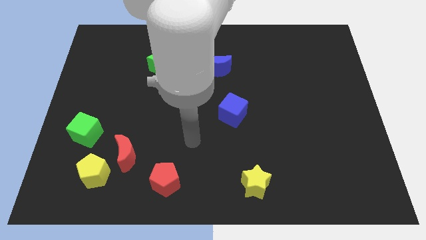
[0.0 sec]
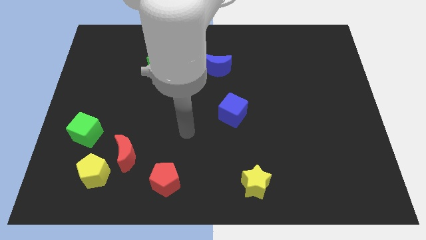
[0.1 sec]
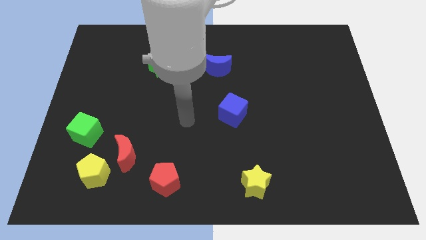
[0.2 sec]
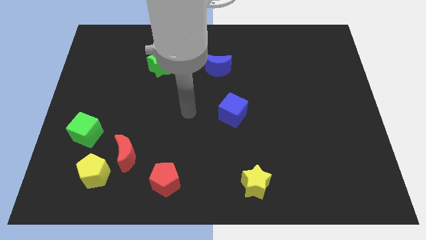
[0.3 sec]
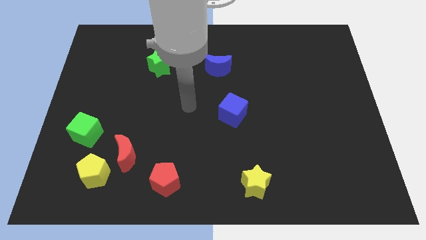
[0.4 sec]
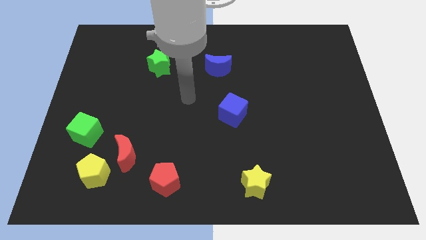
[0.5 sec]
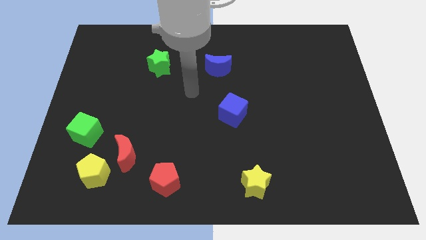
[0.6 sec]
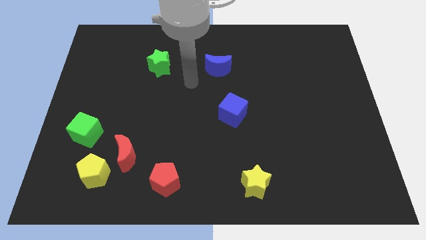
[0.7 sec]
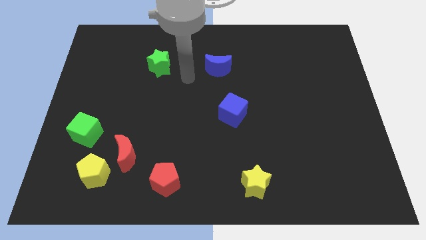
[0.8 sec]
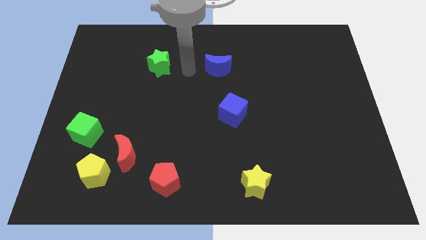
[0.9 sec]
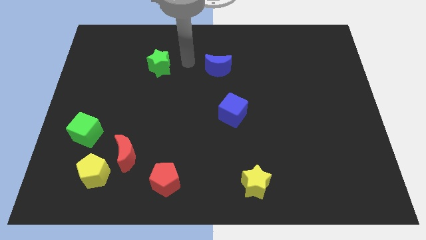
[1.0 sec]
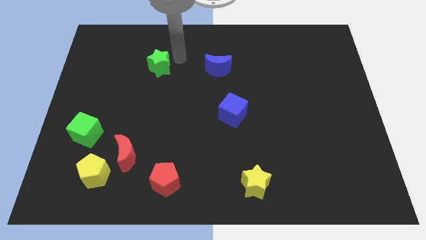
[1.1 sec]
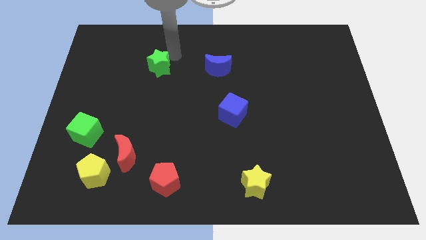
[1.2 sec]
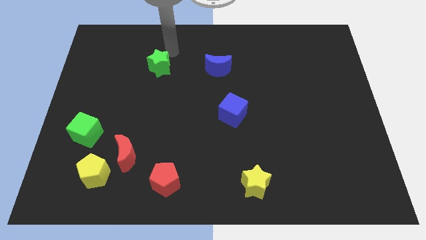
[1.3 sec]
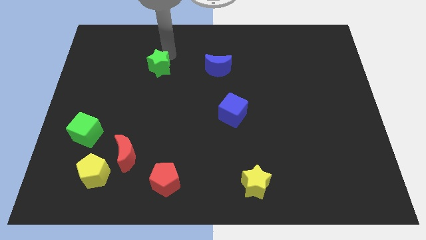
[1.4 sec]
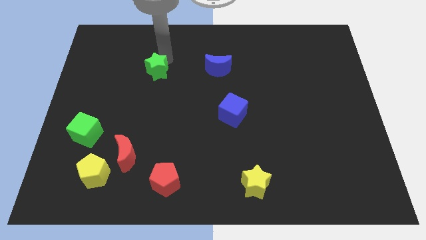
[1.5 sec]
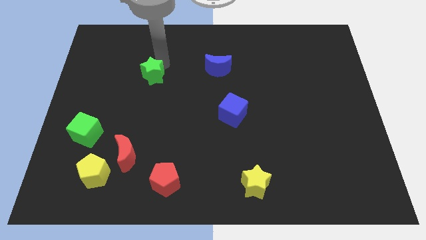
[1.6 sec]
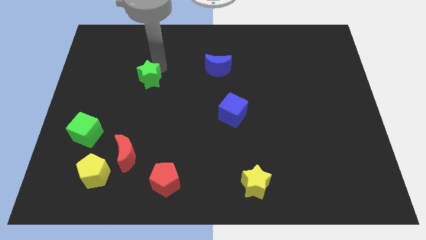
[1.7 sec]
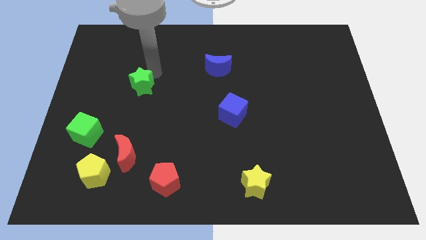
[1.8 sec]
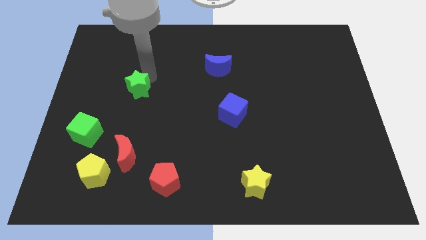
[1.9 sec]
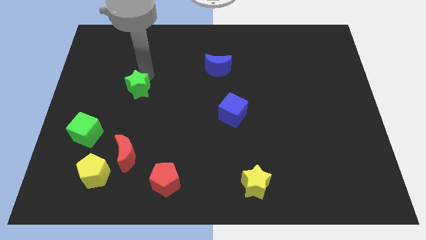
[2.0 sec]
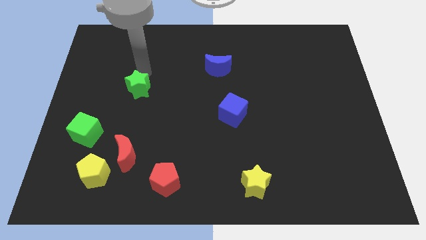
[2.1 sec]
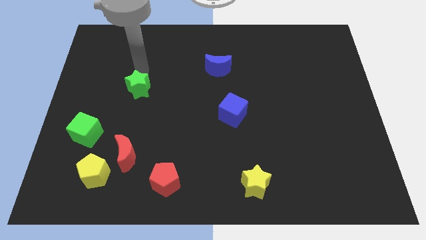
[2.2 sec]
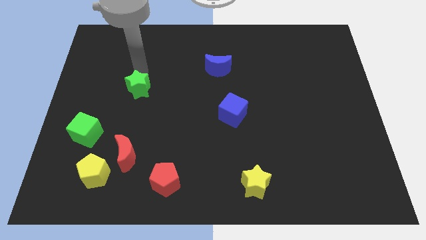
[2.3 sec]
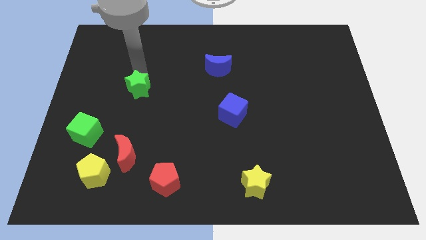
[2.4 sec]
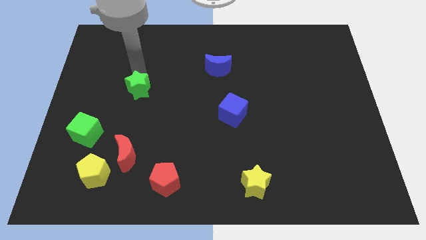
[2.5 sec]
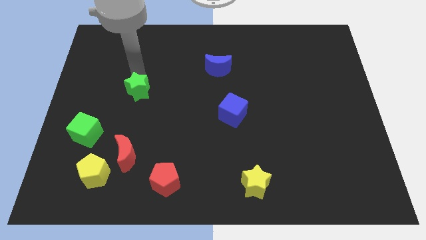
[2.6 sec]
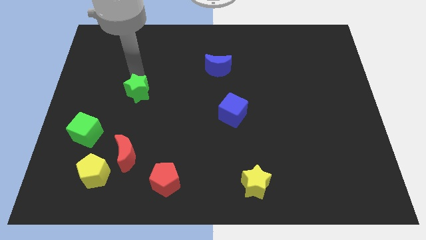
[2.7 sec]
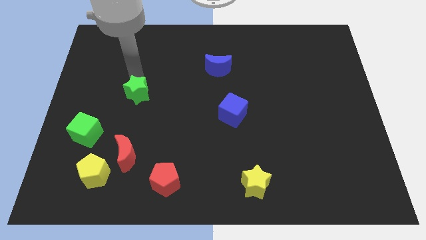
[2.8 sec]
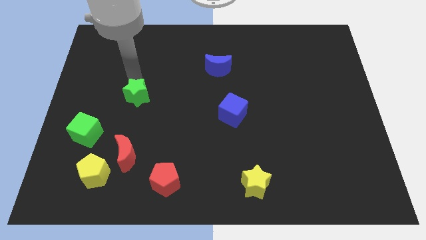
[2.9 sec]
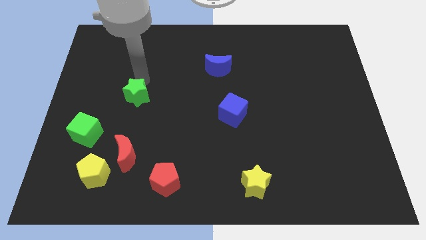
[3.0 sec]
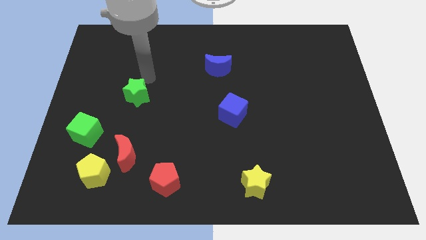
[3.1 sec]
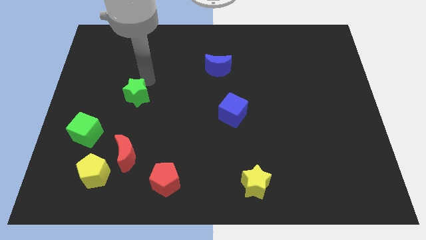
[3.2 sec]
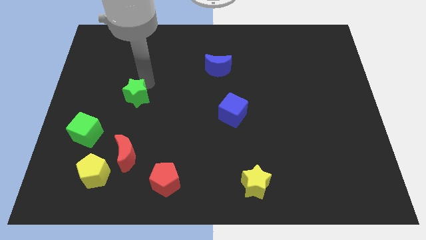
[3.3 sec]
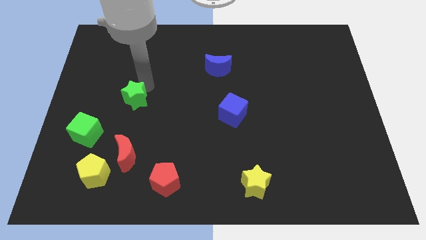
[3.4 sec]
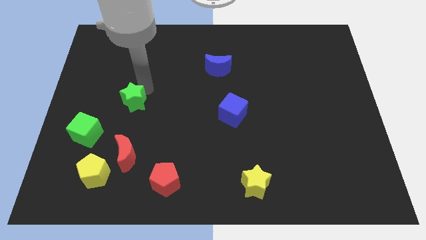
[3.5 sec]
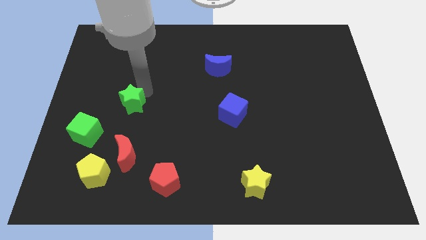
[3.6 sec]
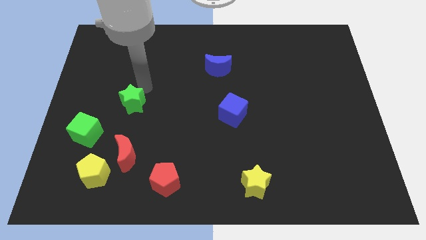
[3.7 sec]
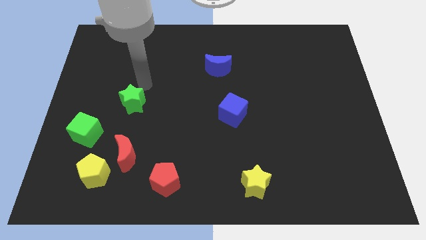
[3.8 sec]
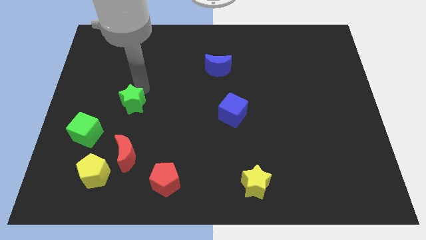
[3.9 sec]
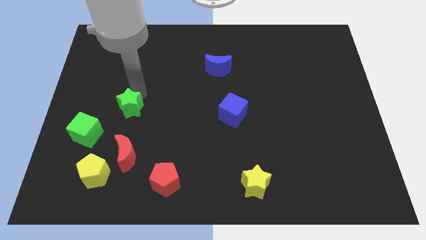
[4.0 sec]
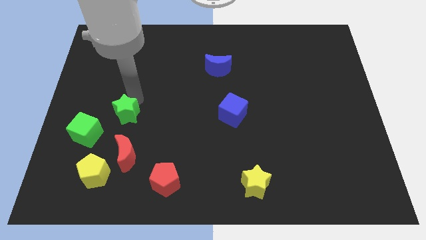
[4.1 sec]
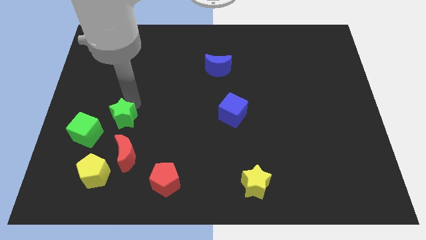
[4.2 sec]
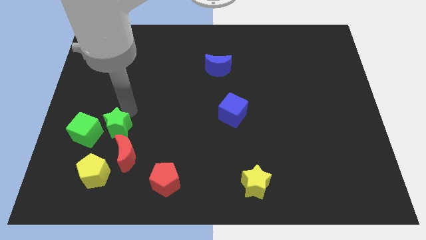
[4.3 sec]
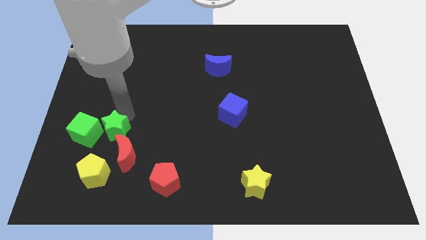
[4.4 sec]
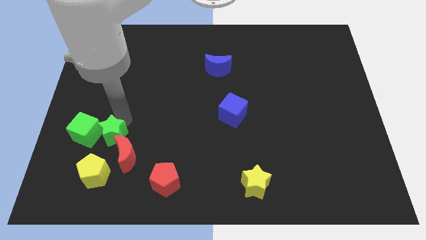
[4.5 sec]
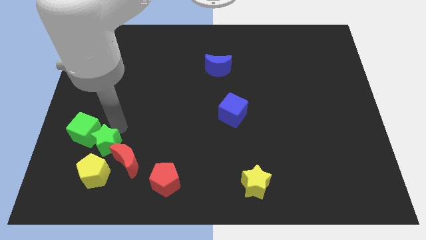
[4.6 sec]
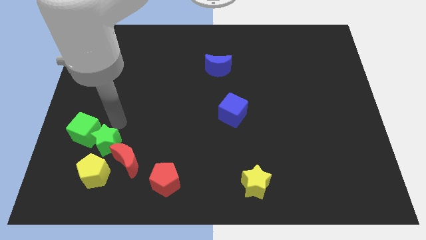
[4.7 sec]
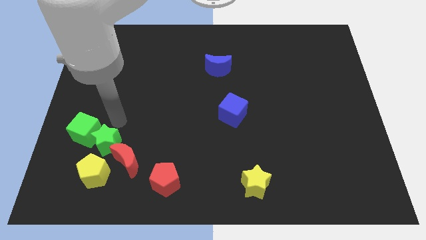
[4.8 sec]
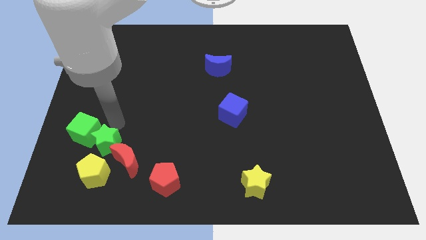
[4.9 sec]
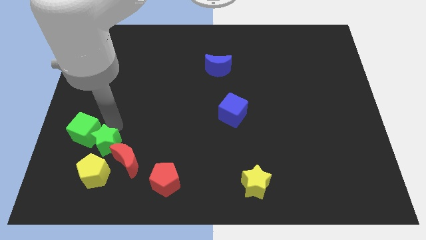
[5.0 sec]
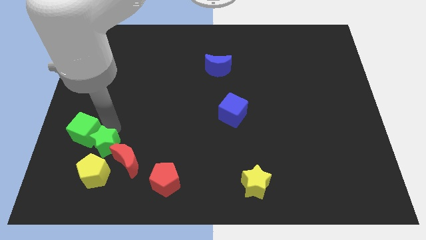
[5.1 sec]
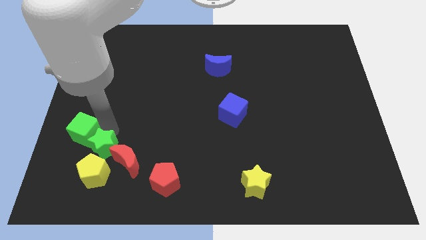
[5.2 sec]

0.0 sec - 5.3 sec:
slide the green star close to the yellow pentagon

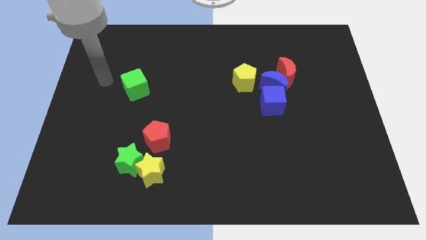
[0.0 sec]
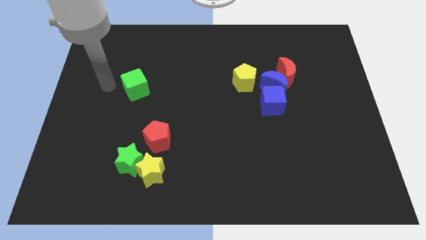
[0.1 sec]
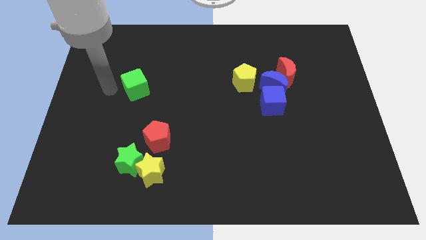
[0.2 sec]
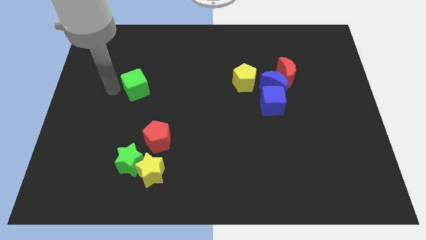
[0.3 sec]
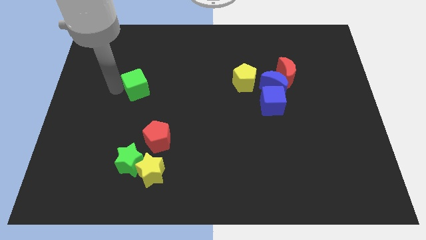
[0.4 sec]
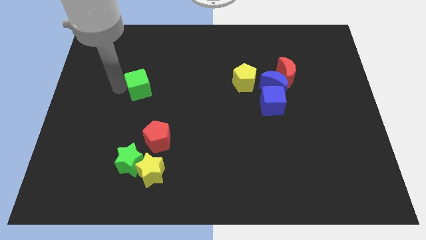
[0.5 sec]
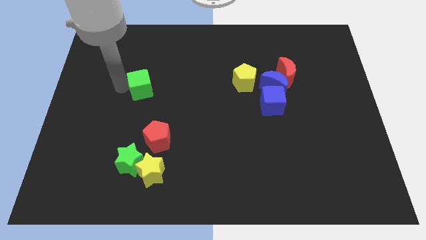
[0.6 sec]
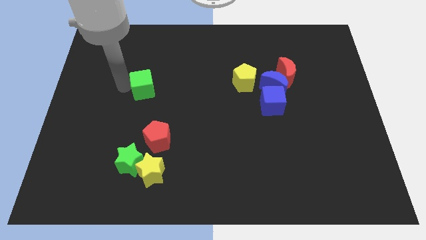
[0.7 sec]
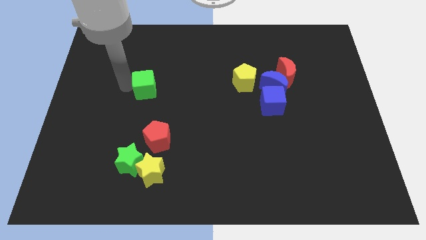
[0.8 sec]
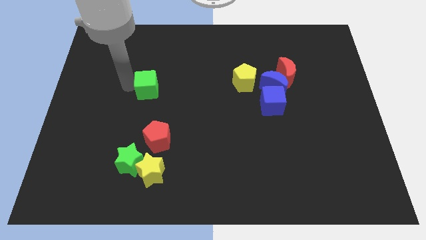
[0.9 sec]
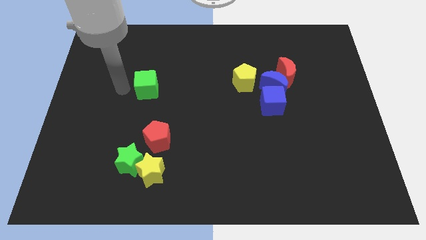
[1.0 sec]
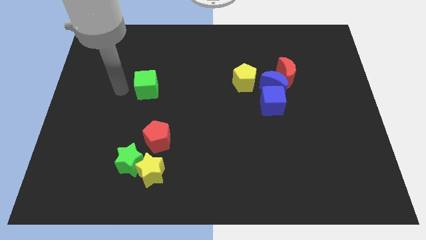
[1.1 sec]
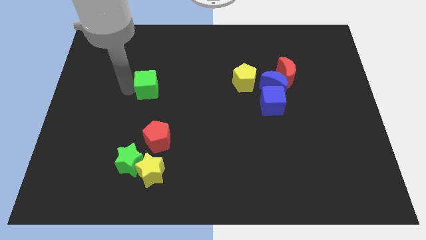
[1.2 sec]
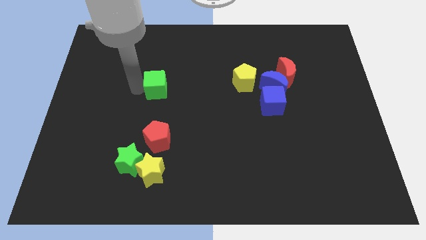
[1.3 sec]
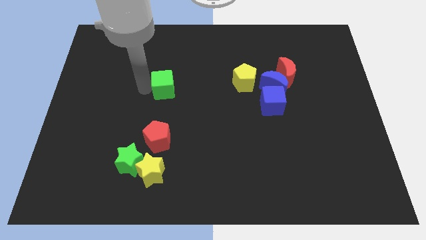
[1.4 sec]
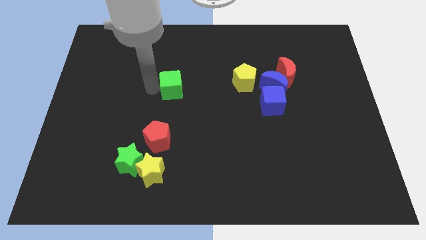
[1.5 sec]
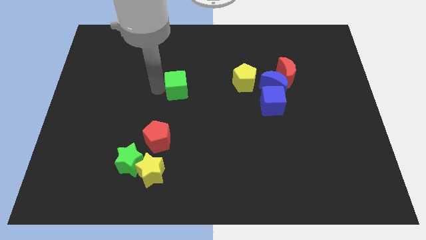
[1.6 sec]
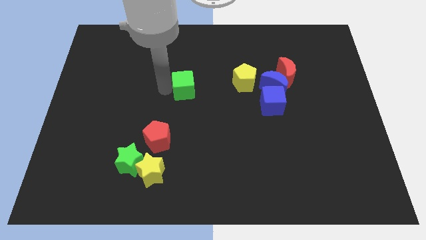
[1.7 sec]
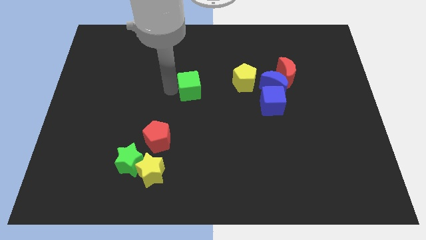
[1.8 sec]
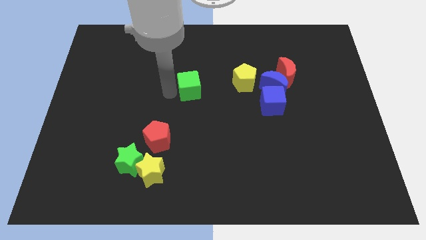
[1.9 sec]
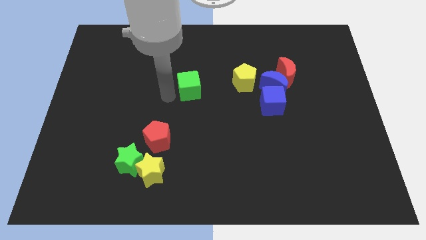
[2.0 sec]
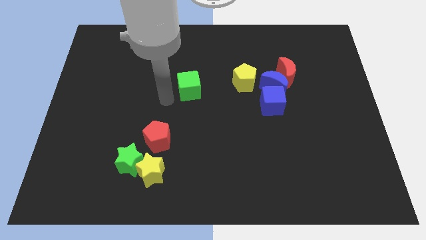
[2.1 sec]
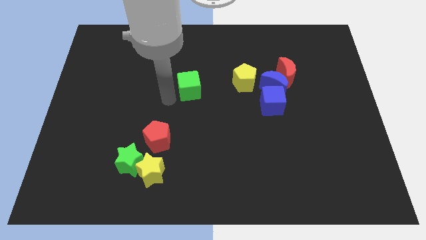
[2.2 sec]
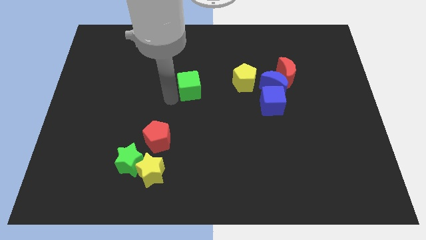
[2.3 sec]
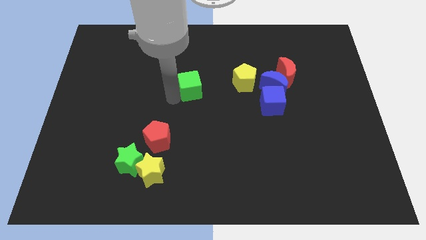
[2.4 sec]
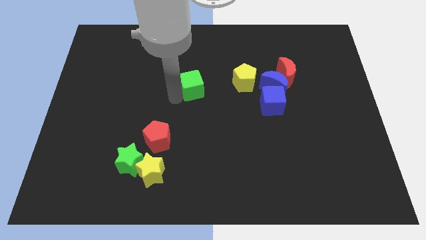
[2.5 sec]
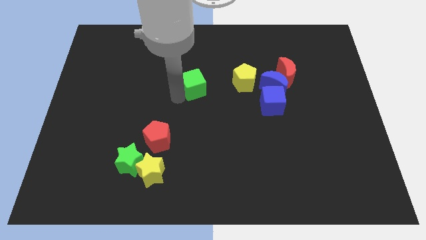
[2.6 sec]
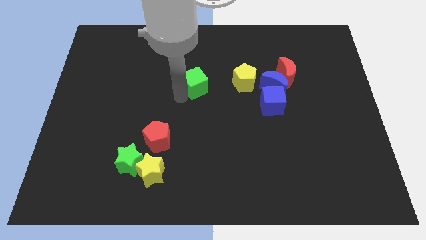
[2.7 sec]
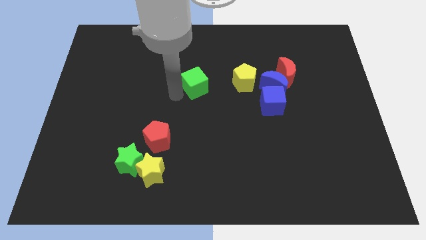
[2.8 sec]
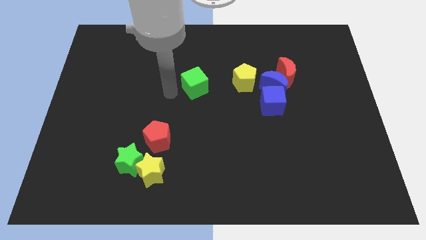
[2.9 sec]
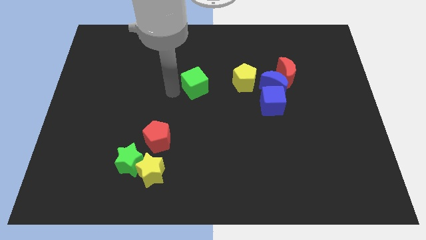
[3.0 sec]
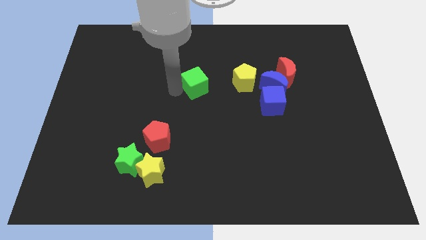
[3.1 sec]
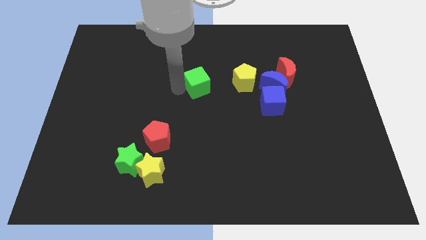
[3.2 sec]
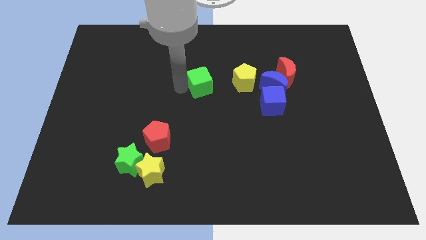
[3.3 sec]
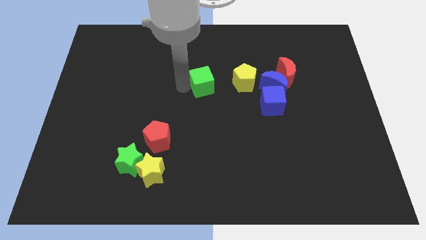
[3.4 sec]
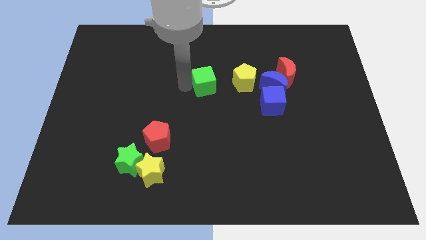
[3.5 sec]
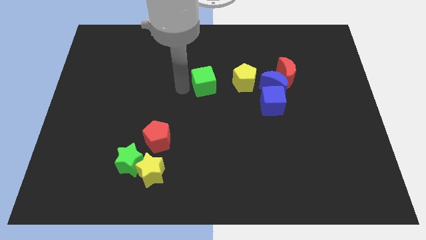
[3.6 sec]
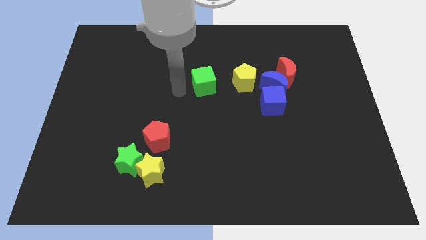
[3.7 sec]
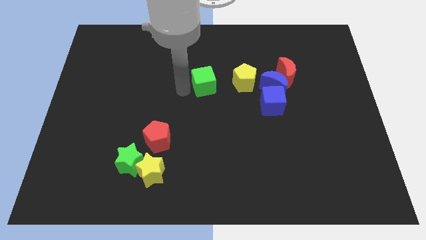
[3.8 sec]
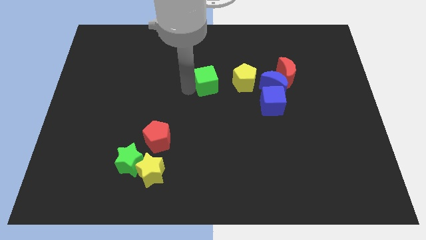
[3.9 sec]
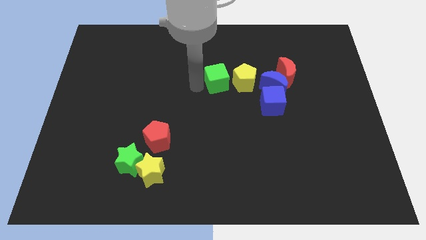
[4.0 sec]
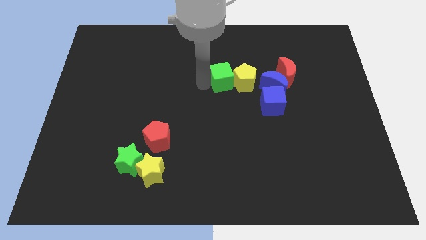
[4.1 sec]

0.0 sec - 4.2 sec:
push the green cube towards the yellow pentagon
